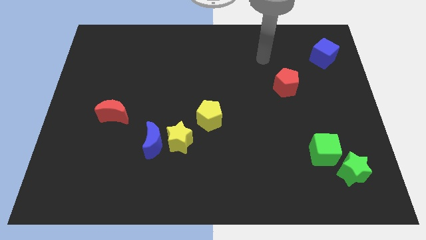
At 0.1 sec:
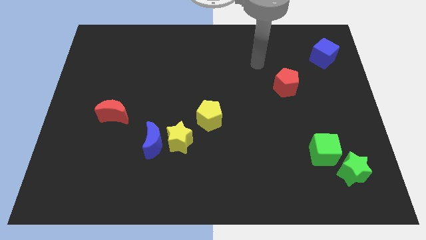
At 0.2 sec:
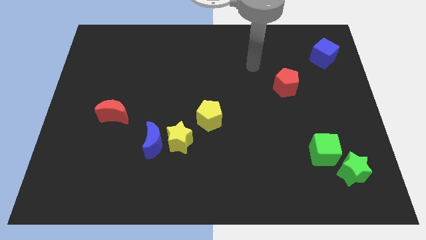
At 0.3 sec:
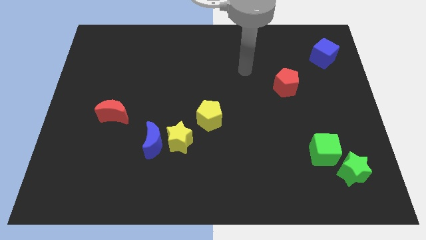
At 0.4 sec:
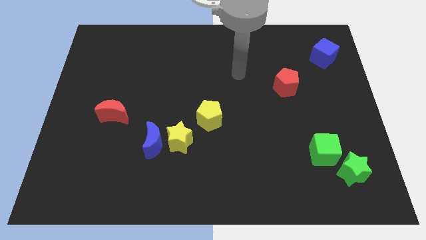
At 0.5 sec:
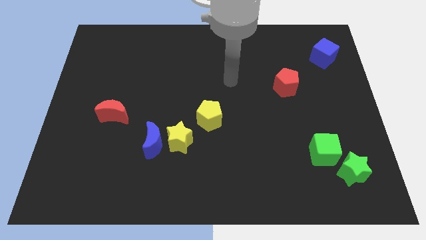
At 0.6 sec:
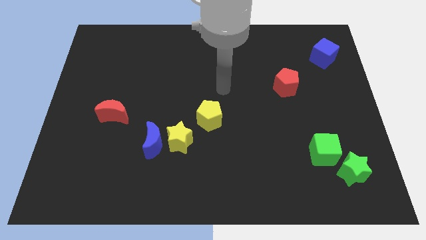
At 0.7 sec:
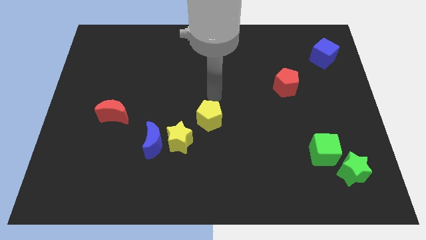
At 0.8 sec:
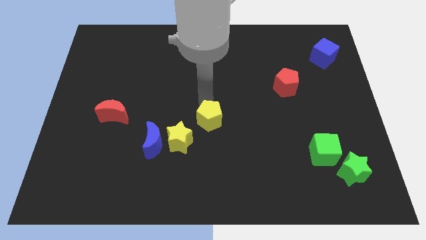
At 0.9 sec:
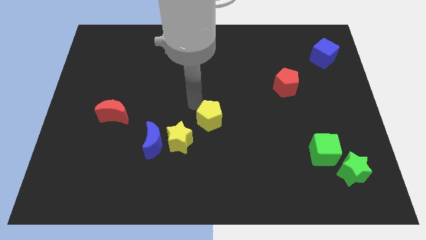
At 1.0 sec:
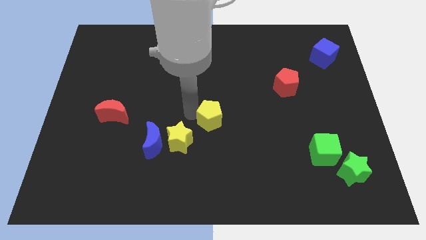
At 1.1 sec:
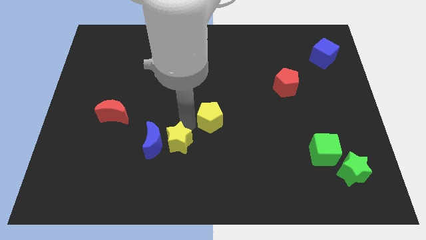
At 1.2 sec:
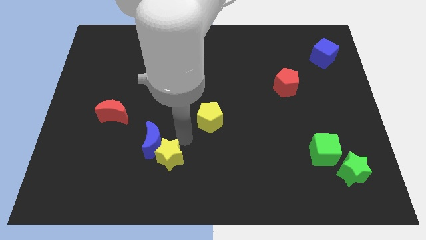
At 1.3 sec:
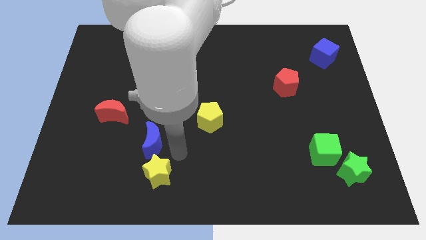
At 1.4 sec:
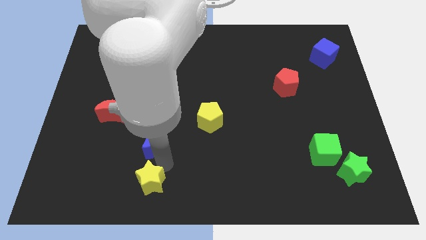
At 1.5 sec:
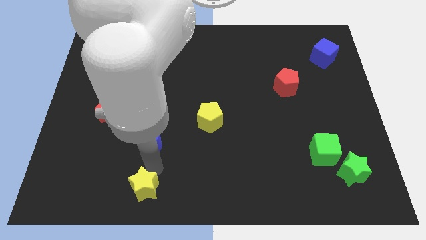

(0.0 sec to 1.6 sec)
pull the blue moon apart from the yellow star

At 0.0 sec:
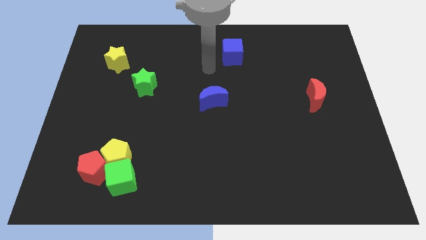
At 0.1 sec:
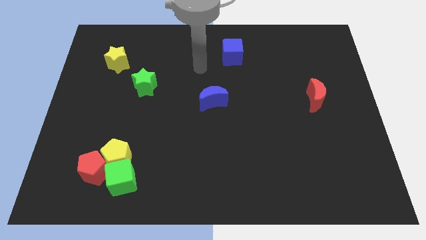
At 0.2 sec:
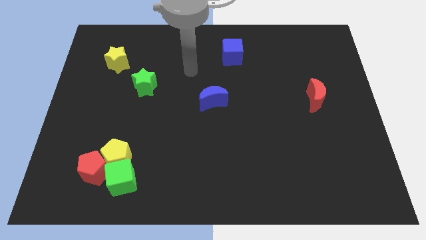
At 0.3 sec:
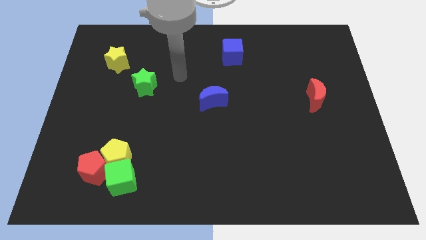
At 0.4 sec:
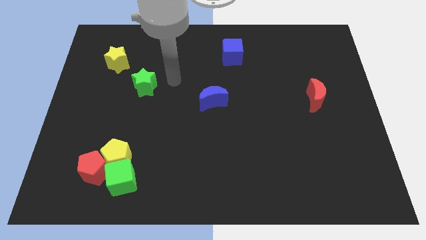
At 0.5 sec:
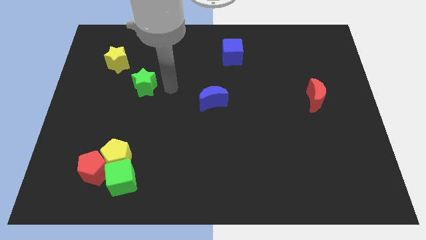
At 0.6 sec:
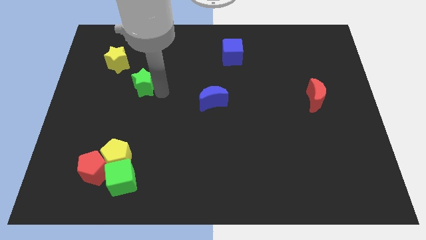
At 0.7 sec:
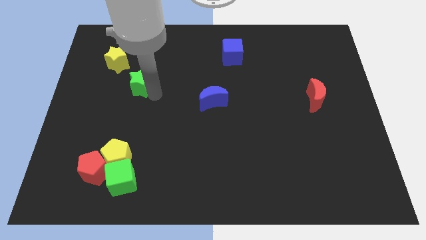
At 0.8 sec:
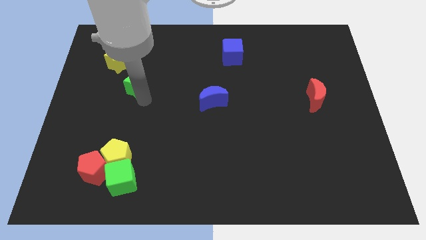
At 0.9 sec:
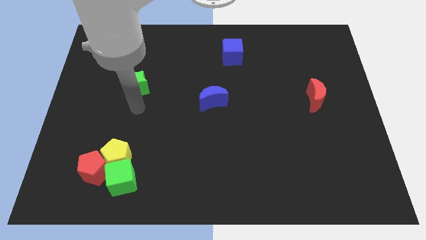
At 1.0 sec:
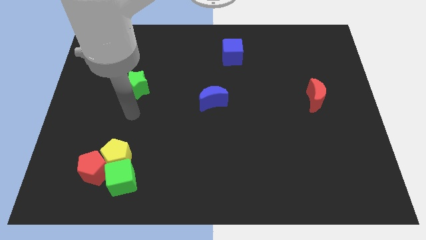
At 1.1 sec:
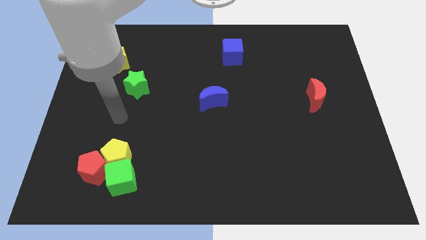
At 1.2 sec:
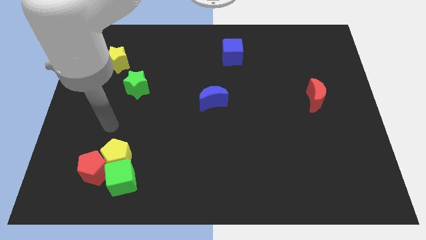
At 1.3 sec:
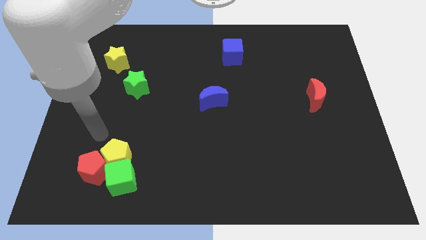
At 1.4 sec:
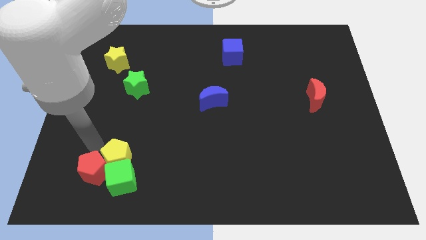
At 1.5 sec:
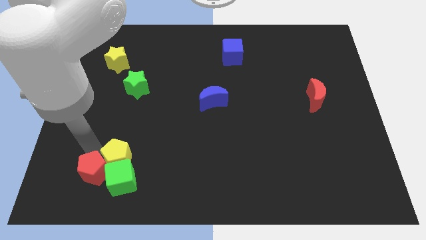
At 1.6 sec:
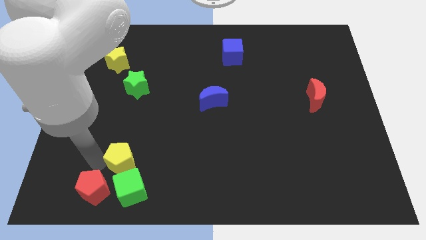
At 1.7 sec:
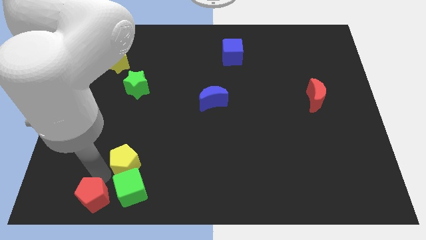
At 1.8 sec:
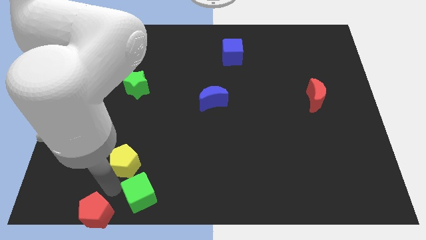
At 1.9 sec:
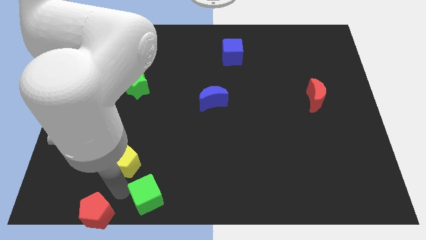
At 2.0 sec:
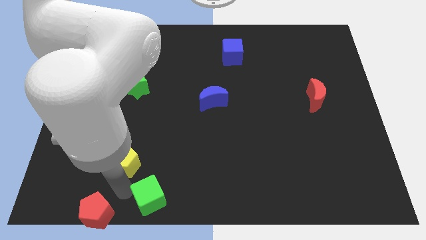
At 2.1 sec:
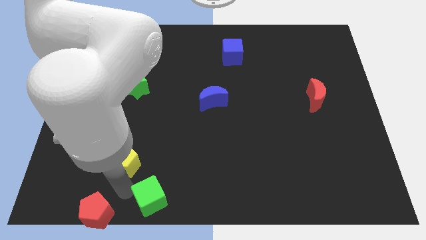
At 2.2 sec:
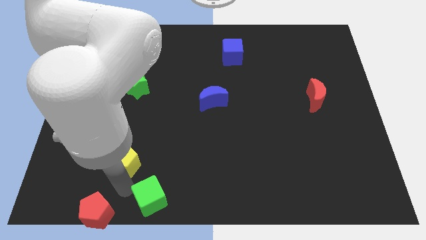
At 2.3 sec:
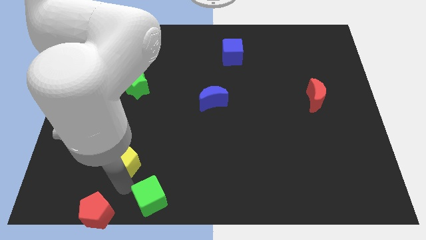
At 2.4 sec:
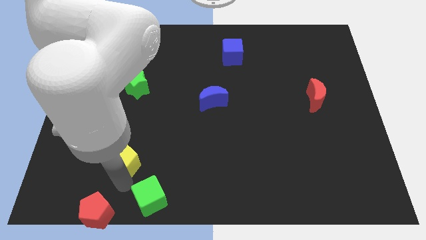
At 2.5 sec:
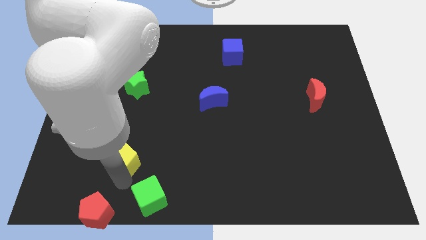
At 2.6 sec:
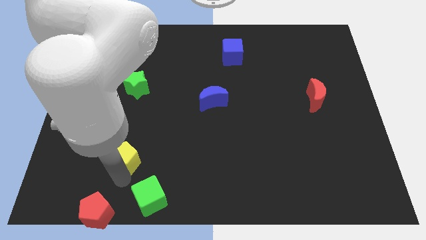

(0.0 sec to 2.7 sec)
separate the yellow pentagon from the red pentagon and green cube

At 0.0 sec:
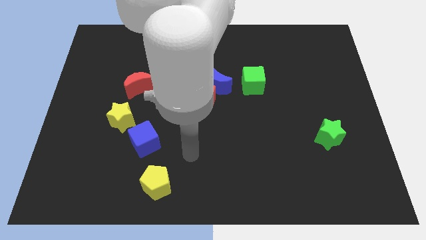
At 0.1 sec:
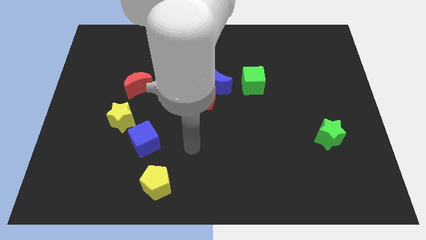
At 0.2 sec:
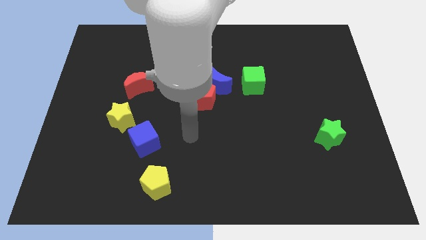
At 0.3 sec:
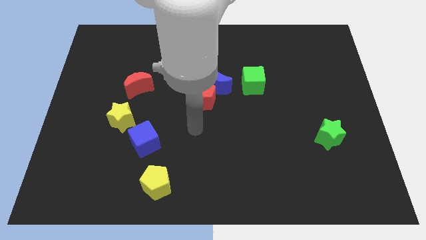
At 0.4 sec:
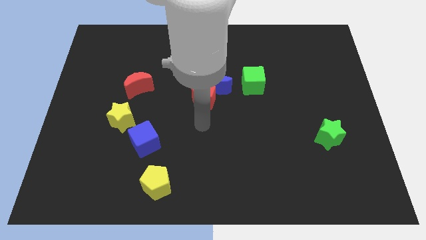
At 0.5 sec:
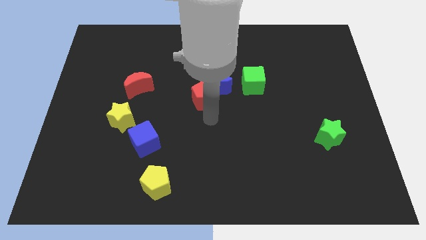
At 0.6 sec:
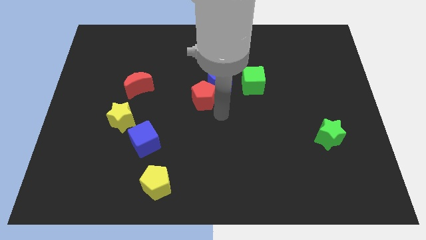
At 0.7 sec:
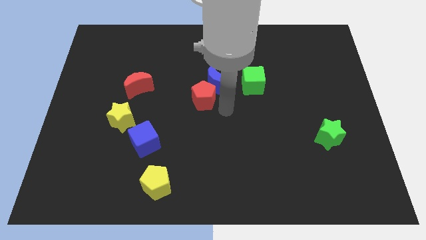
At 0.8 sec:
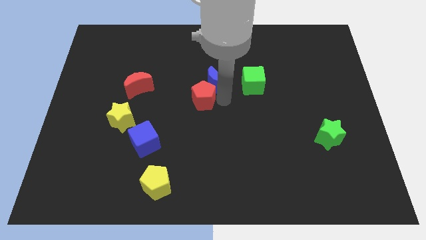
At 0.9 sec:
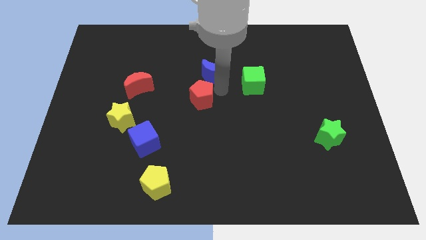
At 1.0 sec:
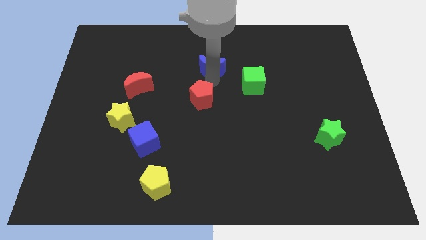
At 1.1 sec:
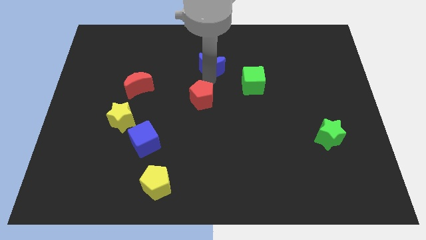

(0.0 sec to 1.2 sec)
separate the red pentagon from the blue moon

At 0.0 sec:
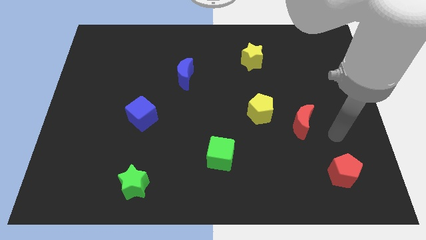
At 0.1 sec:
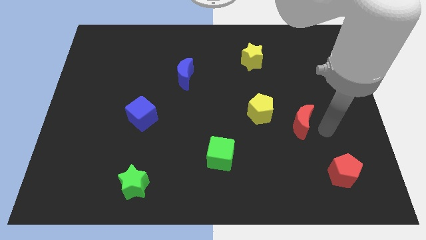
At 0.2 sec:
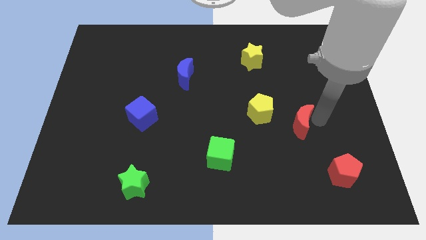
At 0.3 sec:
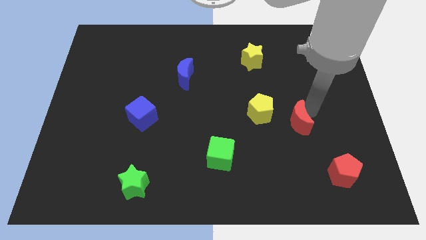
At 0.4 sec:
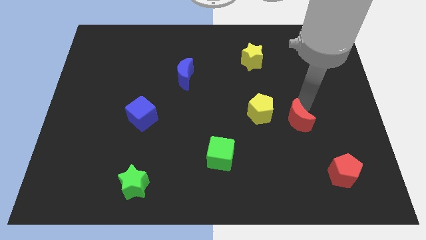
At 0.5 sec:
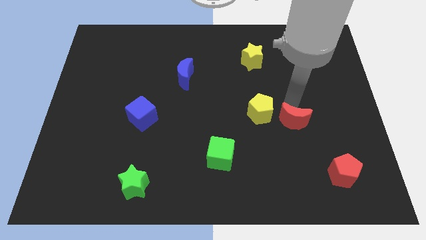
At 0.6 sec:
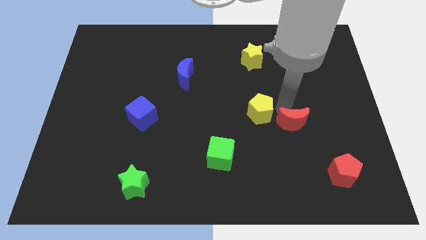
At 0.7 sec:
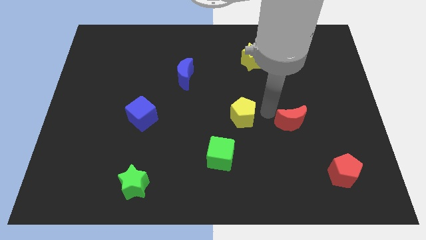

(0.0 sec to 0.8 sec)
move the red moon away from the yellow pentagon

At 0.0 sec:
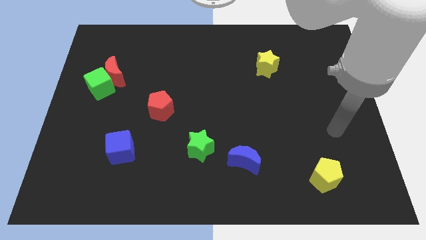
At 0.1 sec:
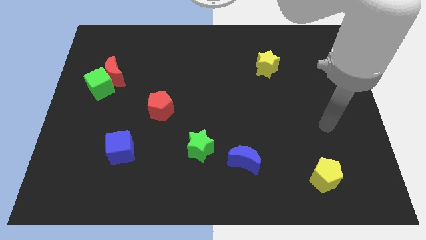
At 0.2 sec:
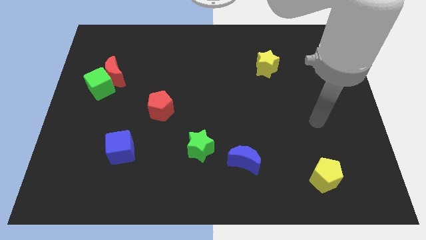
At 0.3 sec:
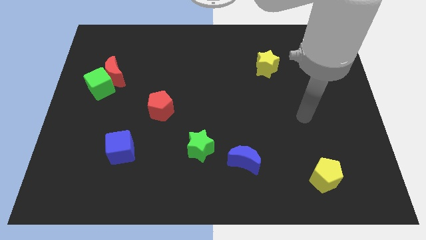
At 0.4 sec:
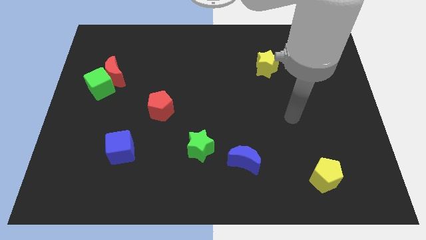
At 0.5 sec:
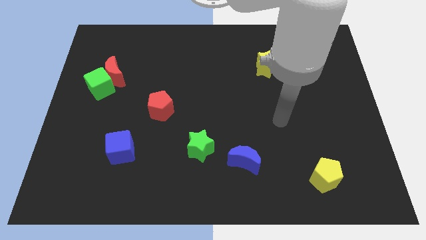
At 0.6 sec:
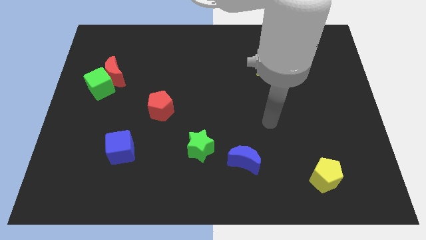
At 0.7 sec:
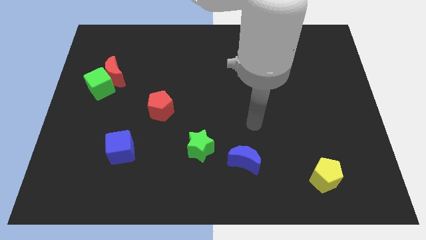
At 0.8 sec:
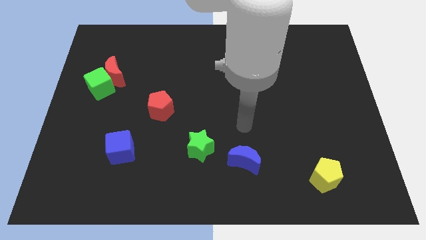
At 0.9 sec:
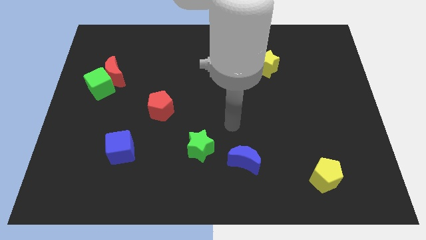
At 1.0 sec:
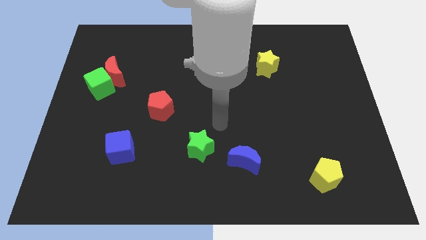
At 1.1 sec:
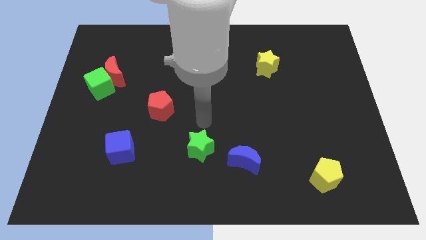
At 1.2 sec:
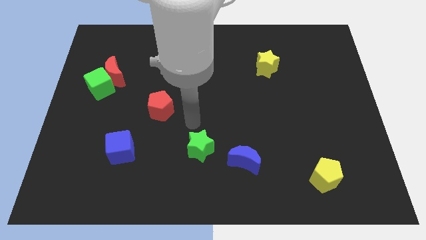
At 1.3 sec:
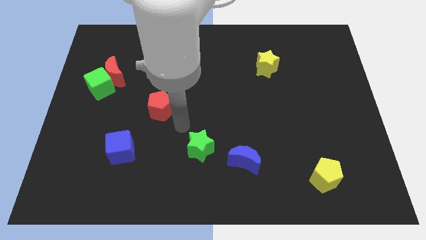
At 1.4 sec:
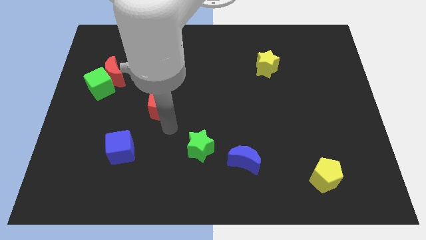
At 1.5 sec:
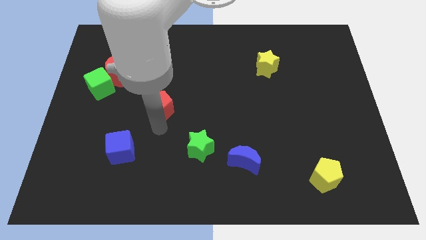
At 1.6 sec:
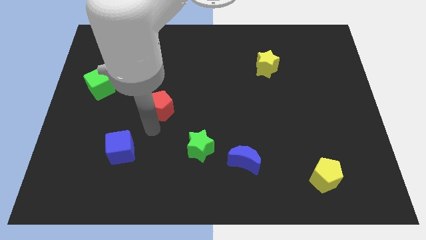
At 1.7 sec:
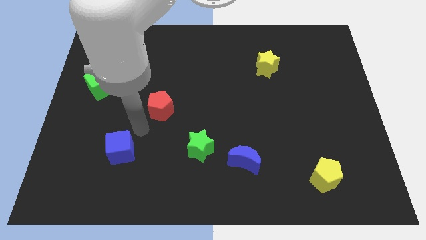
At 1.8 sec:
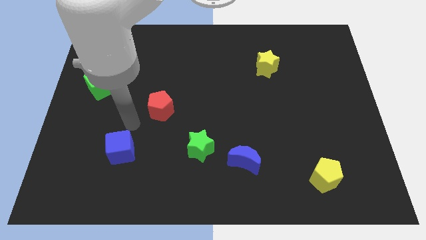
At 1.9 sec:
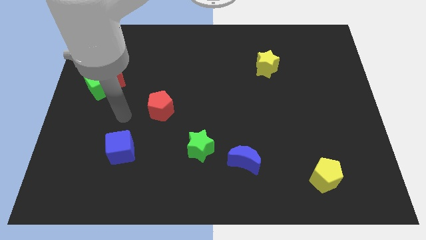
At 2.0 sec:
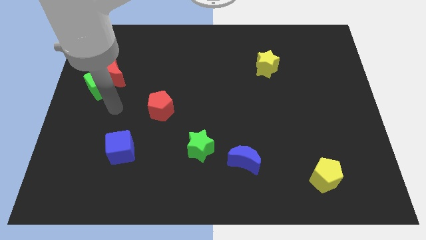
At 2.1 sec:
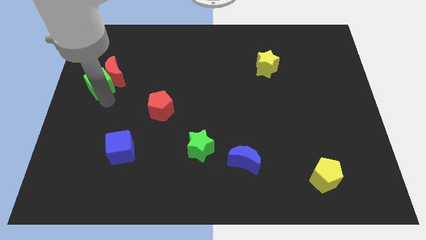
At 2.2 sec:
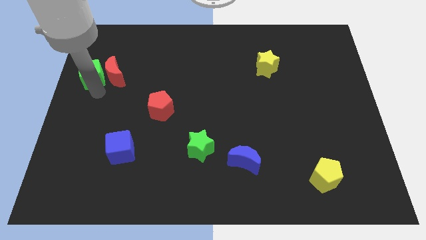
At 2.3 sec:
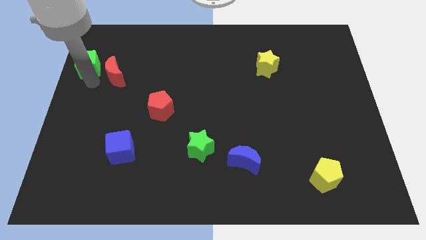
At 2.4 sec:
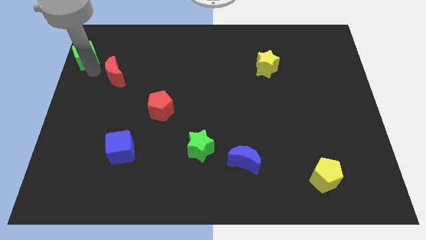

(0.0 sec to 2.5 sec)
pull the red moon apart from the green cube

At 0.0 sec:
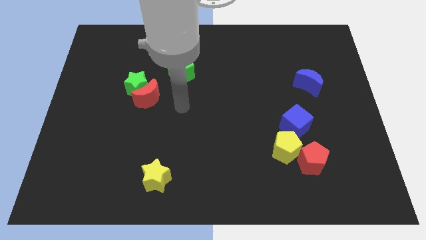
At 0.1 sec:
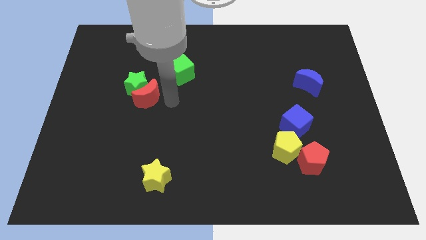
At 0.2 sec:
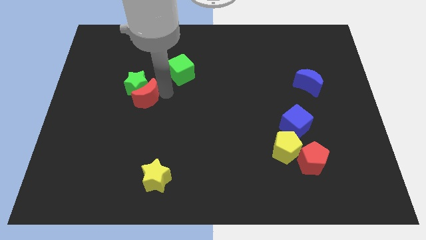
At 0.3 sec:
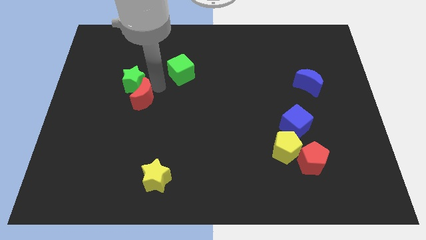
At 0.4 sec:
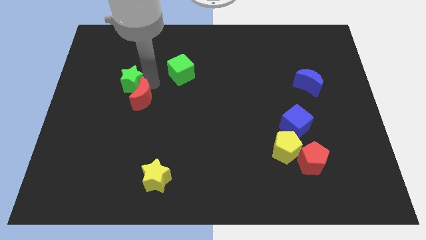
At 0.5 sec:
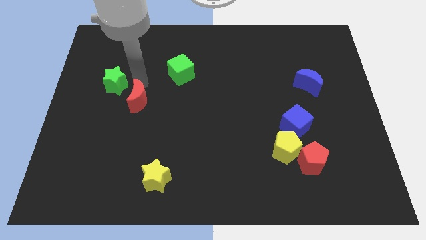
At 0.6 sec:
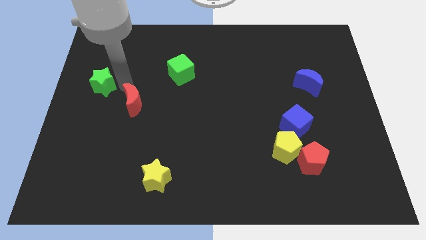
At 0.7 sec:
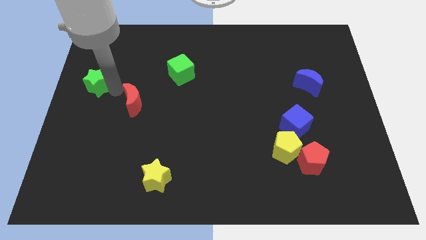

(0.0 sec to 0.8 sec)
move the red moon away from the green star
